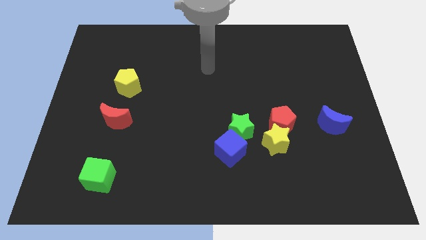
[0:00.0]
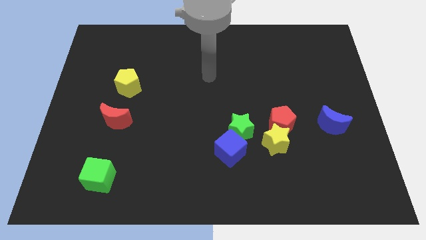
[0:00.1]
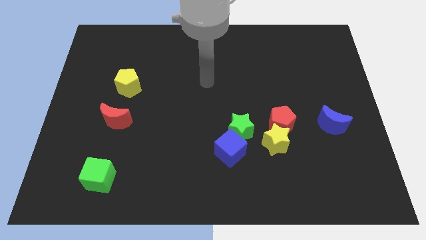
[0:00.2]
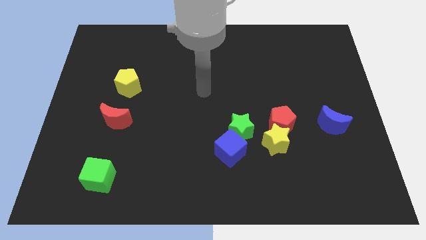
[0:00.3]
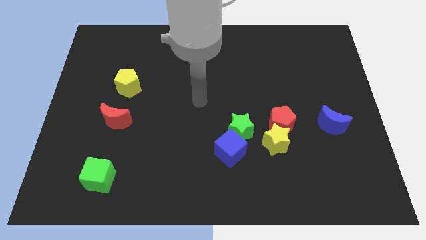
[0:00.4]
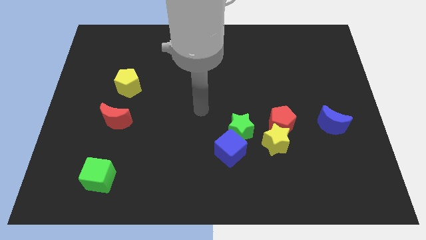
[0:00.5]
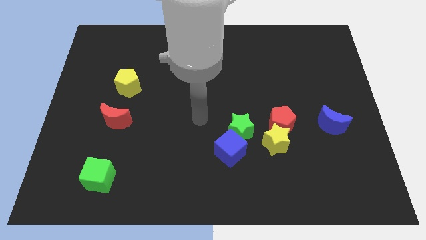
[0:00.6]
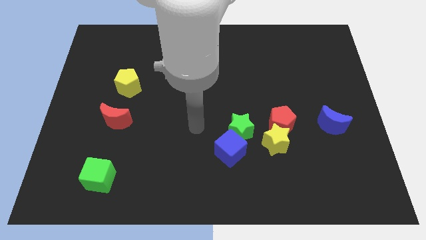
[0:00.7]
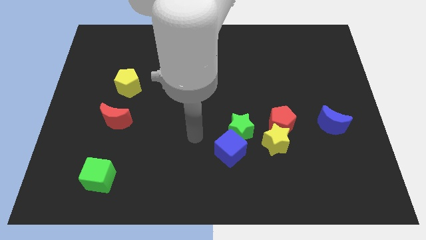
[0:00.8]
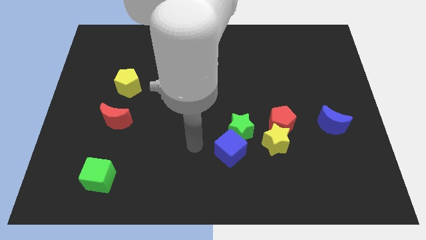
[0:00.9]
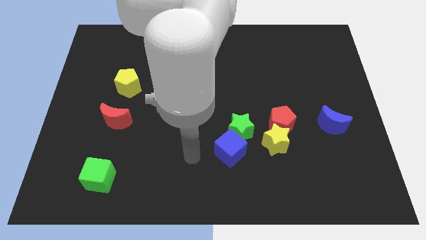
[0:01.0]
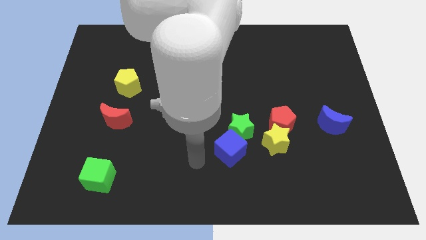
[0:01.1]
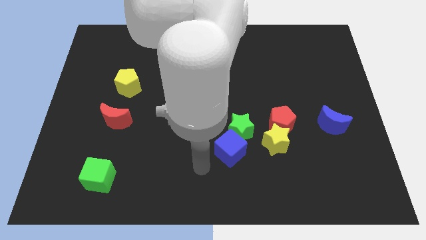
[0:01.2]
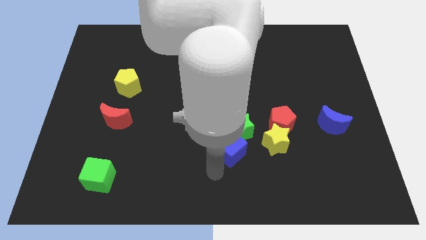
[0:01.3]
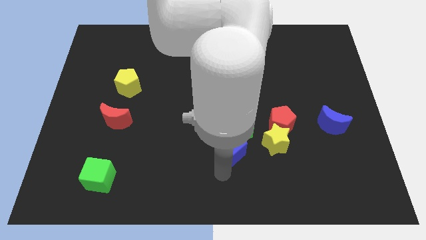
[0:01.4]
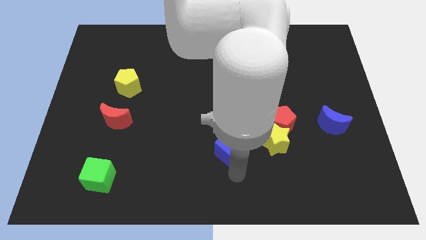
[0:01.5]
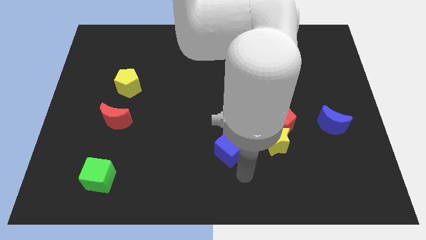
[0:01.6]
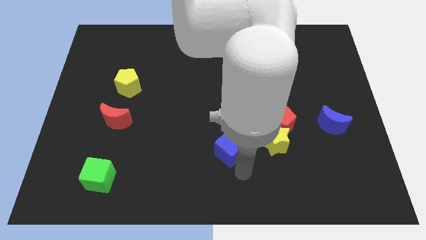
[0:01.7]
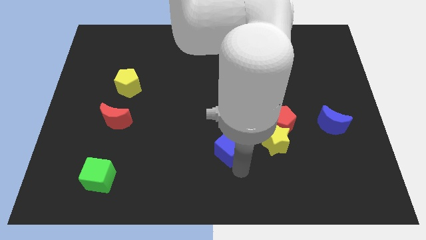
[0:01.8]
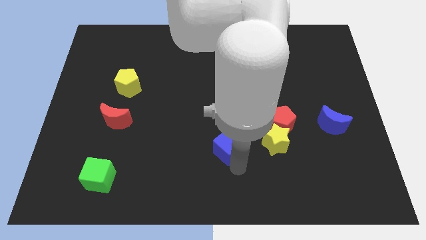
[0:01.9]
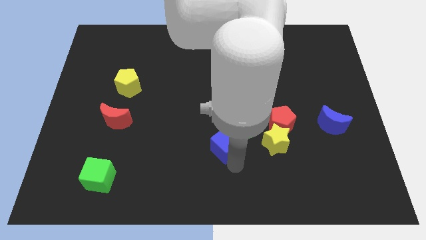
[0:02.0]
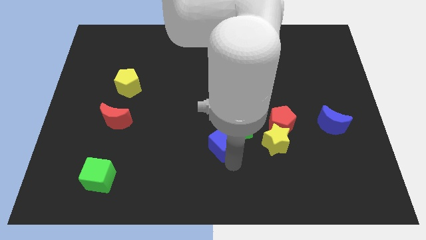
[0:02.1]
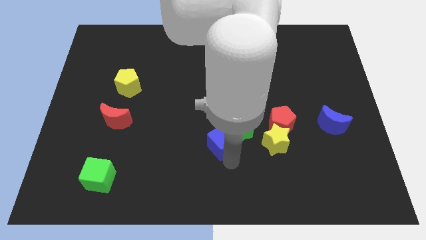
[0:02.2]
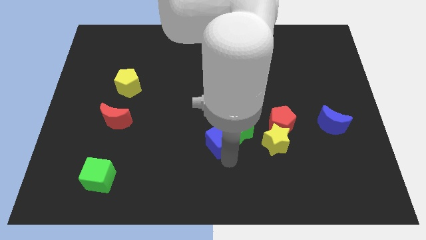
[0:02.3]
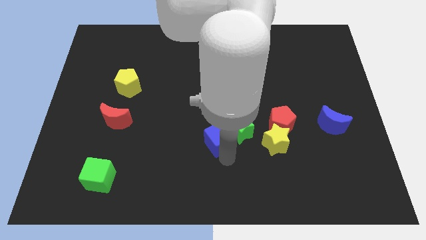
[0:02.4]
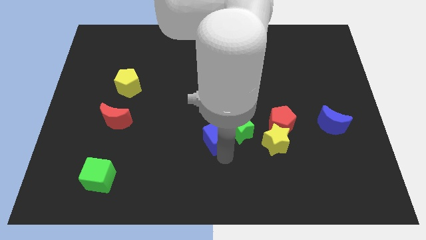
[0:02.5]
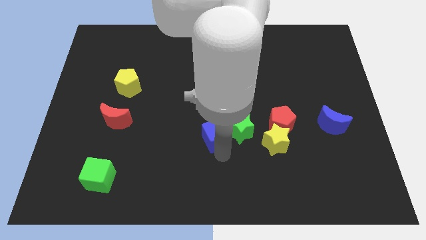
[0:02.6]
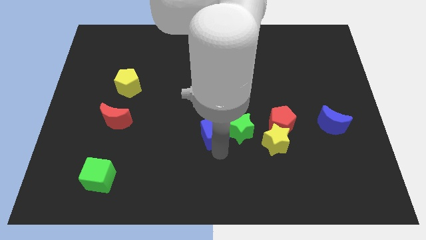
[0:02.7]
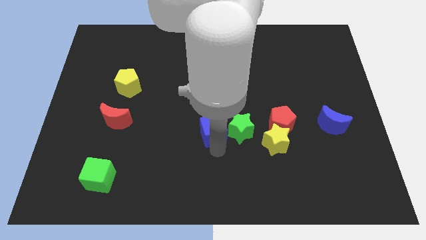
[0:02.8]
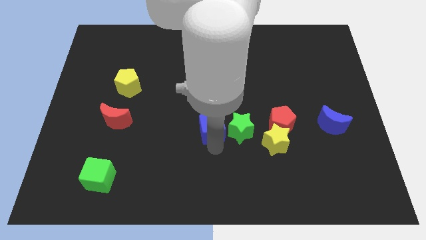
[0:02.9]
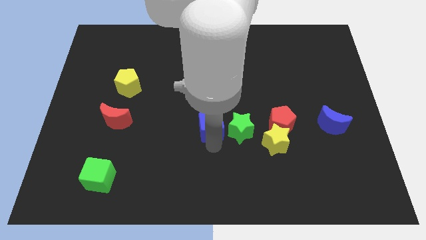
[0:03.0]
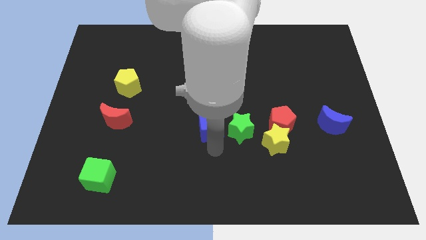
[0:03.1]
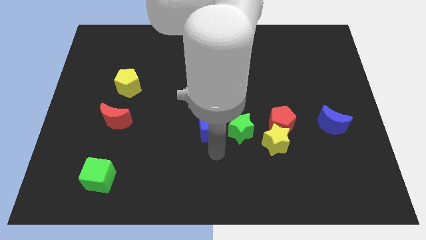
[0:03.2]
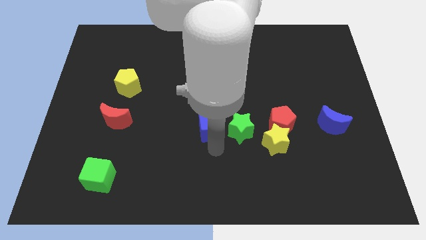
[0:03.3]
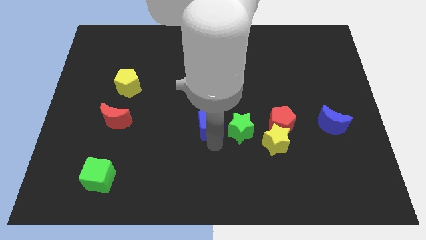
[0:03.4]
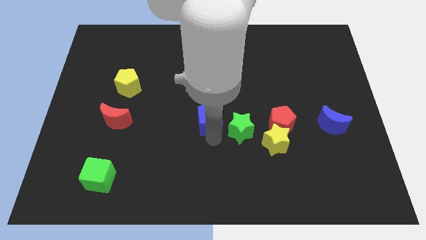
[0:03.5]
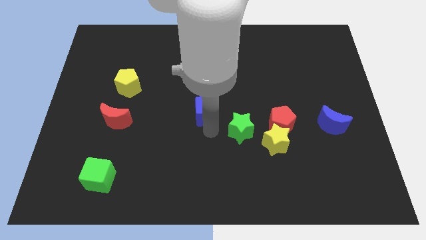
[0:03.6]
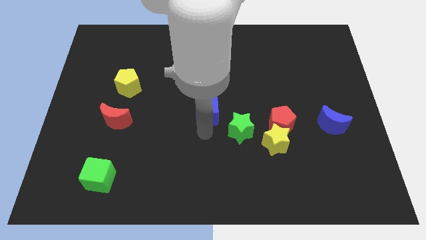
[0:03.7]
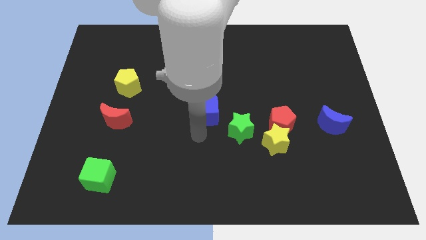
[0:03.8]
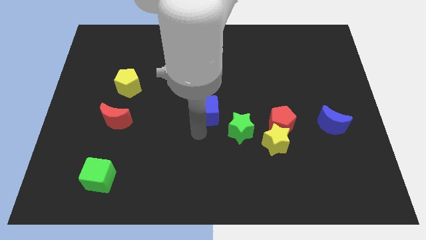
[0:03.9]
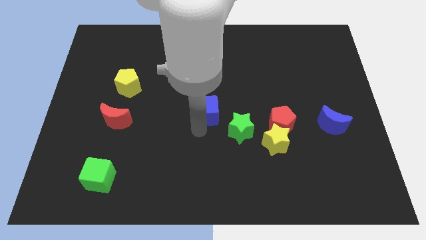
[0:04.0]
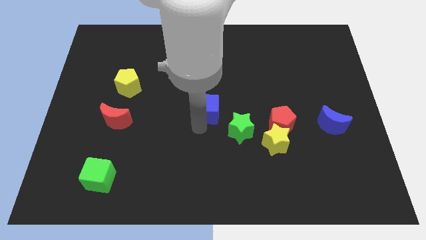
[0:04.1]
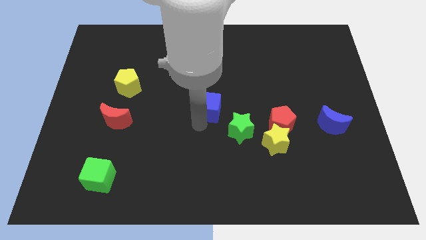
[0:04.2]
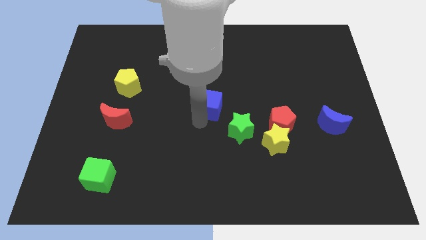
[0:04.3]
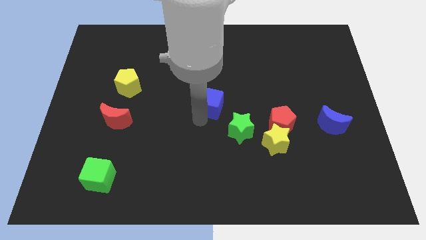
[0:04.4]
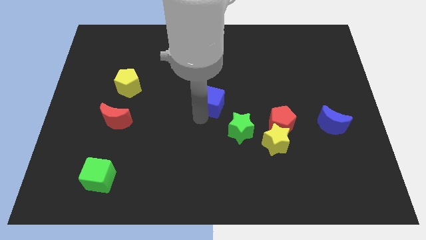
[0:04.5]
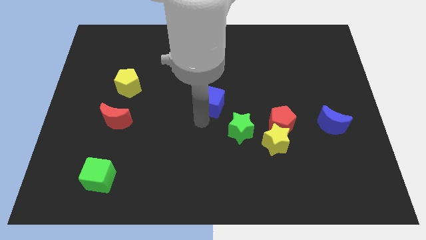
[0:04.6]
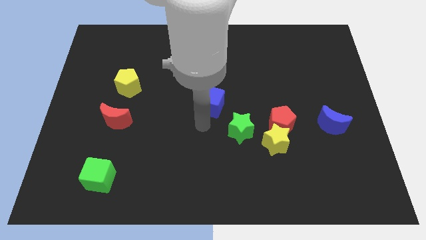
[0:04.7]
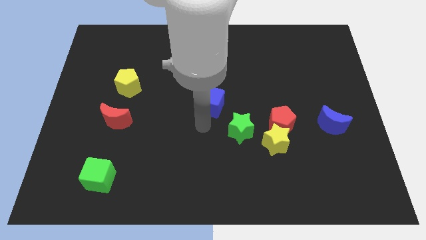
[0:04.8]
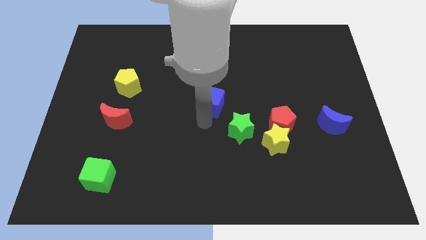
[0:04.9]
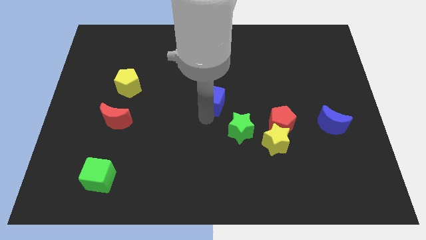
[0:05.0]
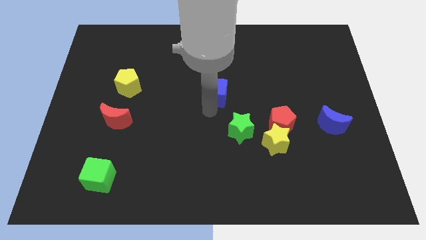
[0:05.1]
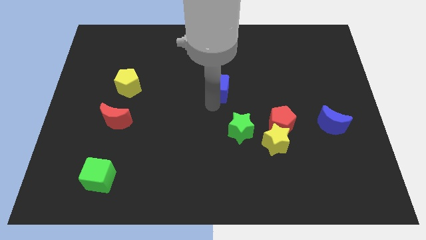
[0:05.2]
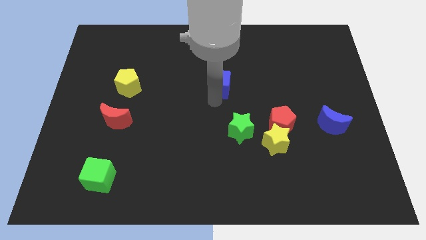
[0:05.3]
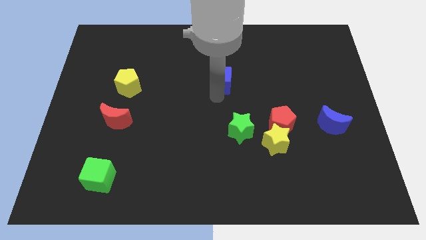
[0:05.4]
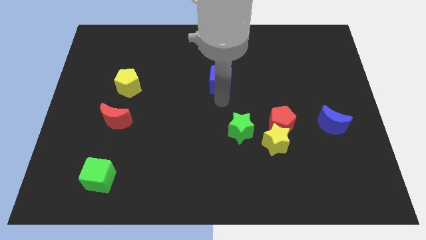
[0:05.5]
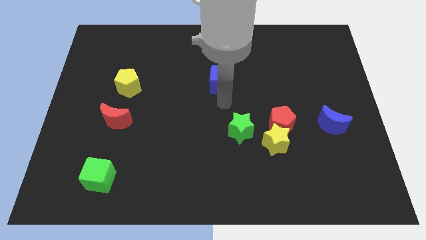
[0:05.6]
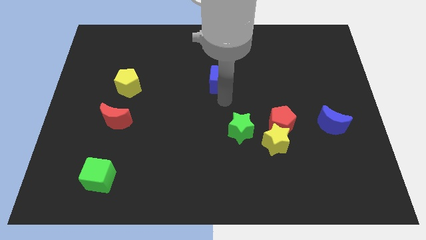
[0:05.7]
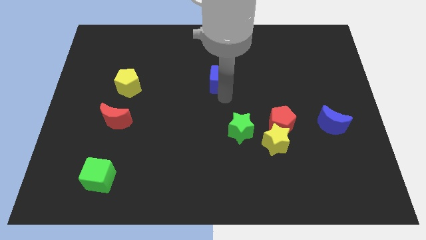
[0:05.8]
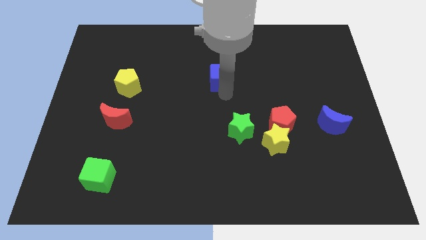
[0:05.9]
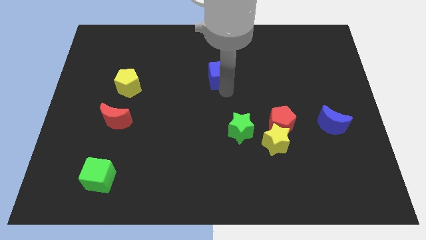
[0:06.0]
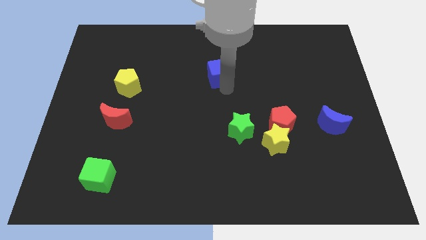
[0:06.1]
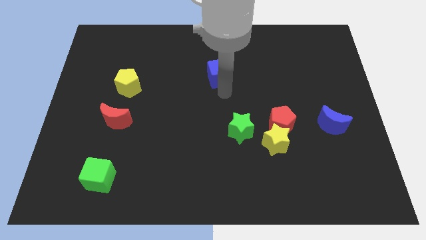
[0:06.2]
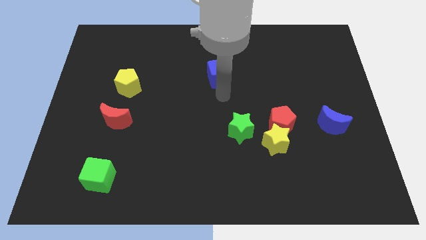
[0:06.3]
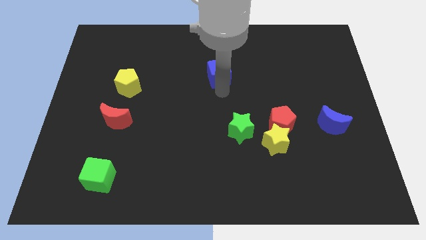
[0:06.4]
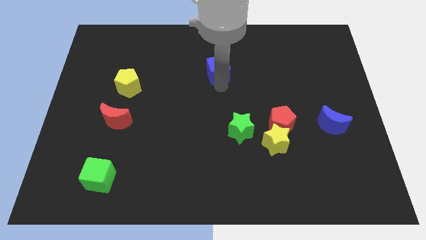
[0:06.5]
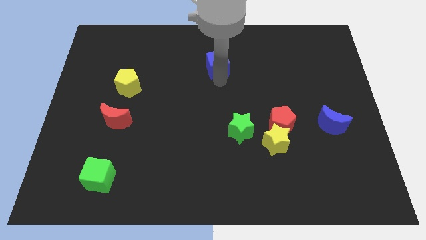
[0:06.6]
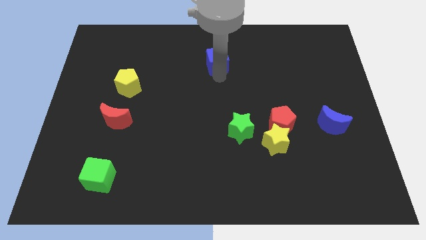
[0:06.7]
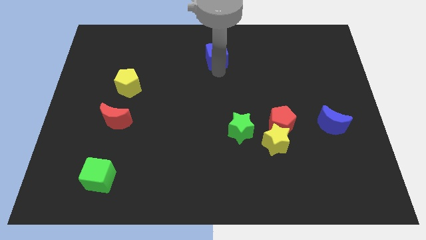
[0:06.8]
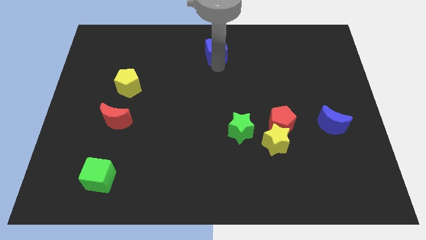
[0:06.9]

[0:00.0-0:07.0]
push the blue cube to the towards your base
